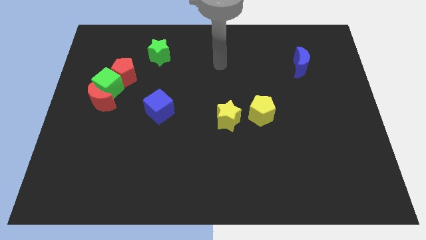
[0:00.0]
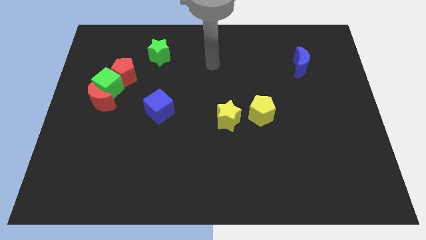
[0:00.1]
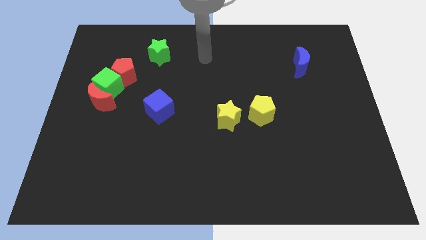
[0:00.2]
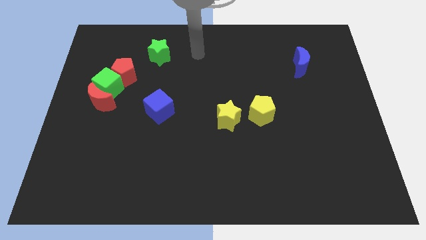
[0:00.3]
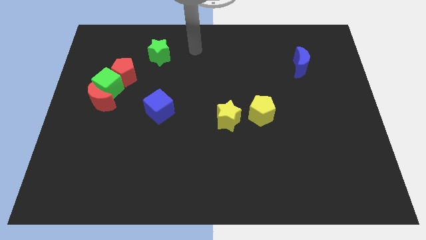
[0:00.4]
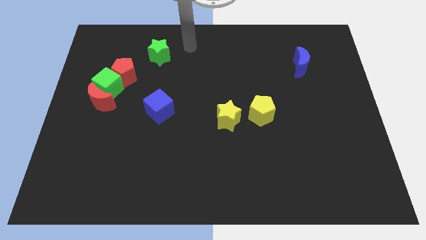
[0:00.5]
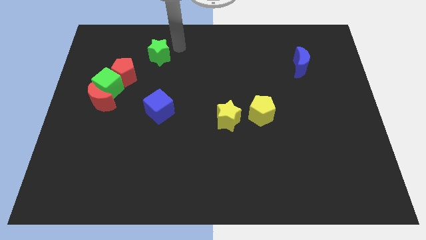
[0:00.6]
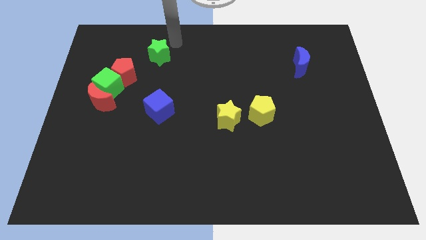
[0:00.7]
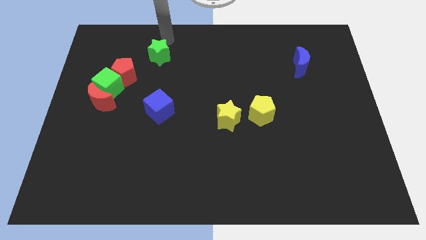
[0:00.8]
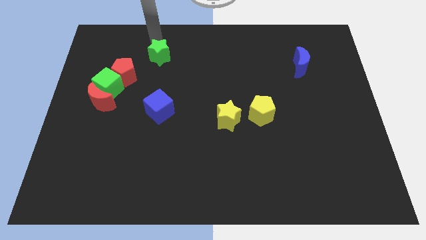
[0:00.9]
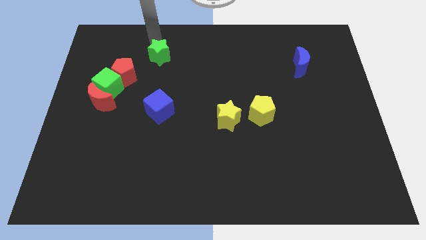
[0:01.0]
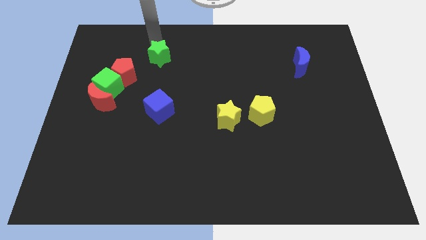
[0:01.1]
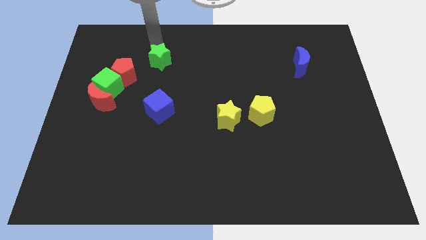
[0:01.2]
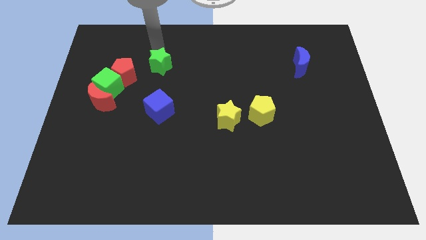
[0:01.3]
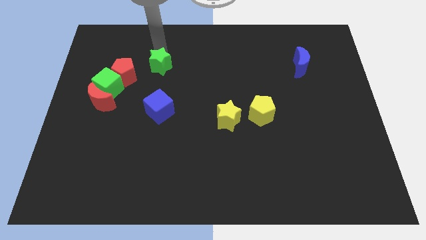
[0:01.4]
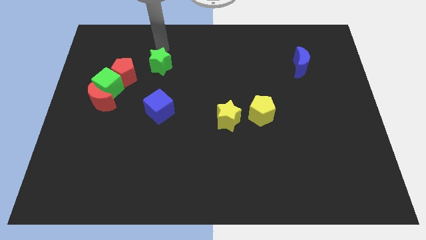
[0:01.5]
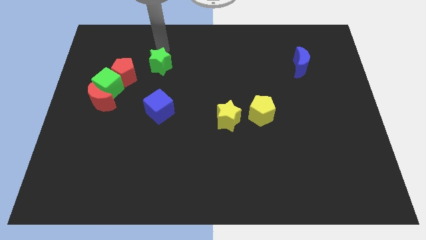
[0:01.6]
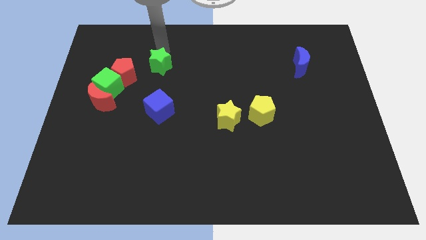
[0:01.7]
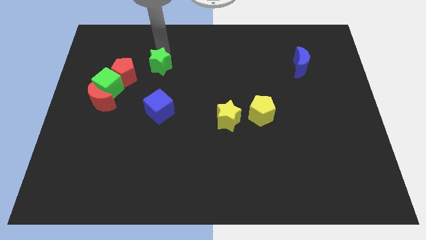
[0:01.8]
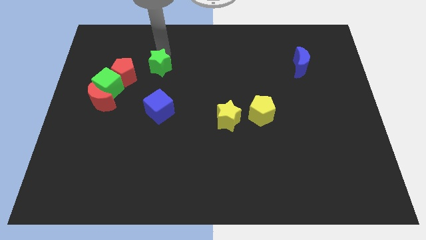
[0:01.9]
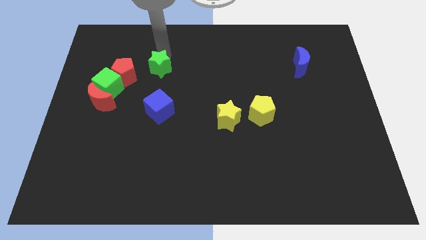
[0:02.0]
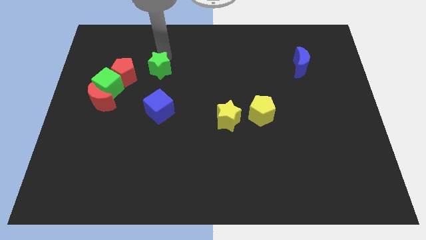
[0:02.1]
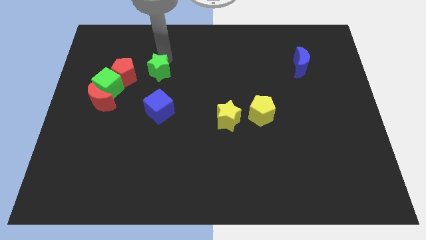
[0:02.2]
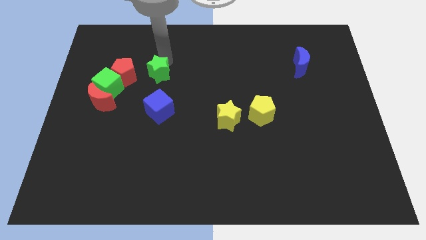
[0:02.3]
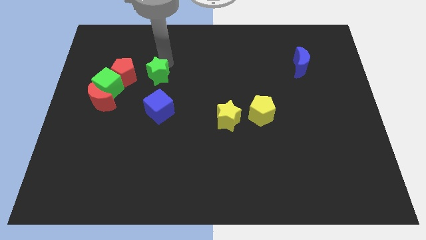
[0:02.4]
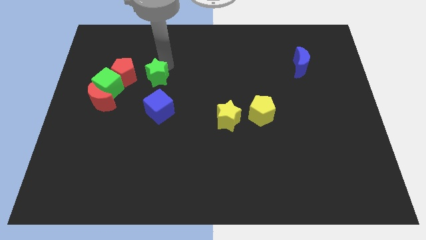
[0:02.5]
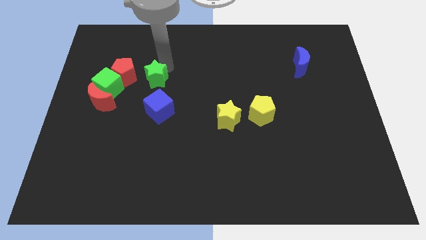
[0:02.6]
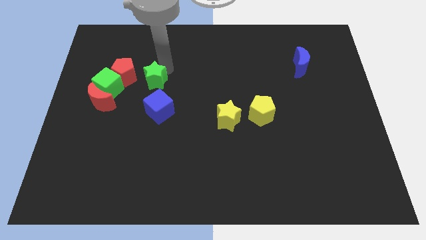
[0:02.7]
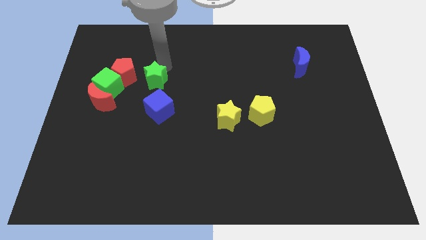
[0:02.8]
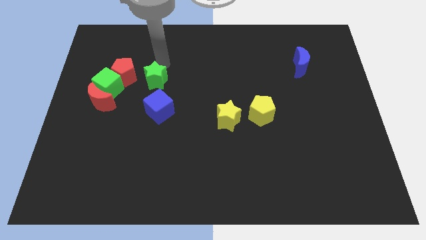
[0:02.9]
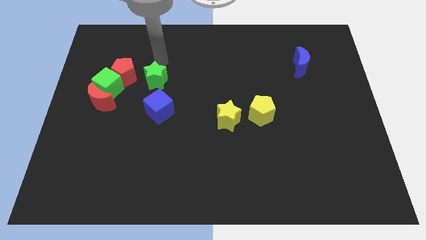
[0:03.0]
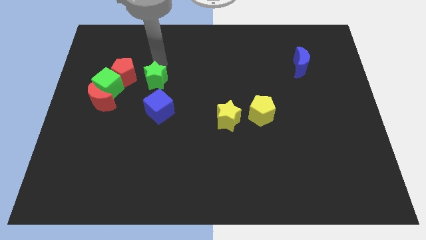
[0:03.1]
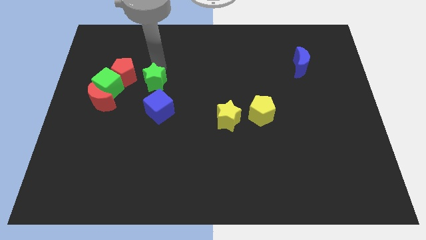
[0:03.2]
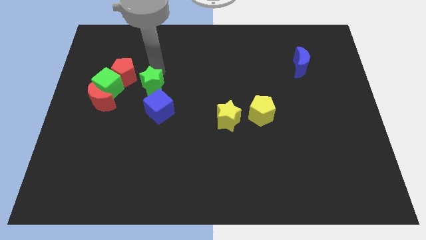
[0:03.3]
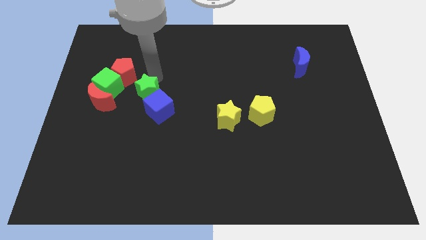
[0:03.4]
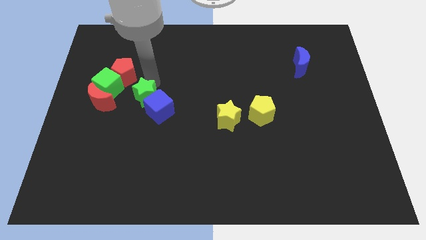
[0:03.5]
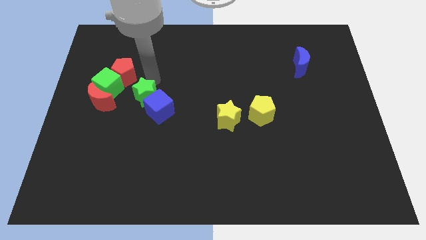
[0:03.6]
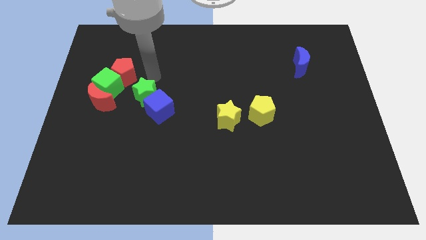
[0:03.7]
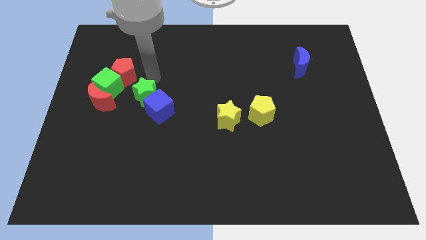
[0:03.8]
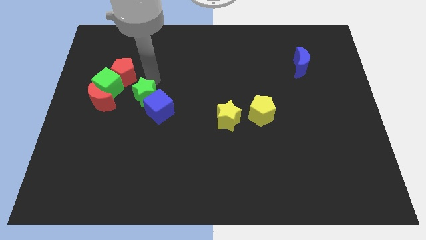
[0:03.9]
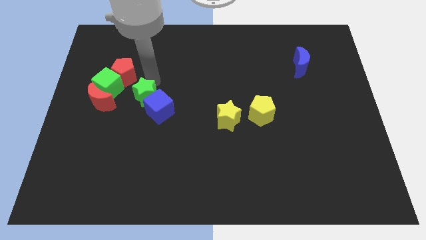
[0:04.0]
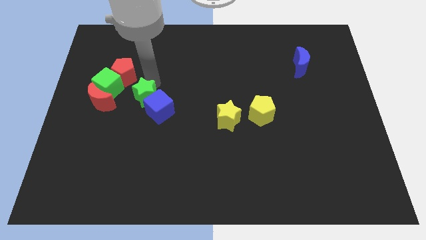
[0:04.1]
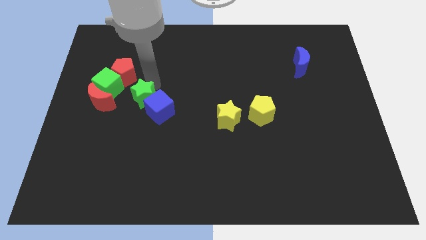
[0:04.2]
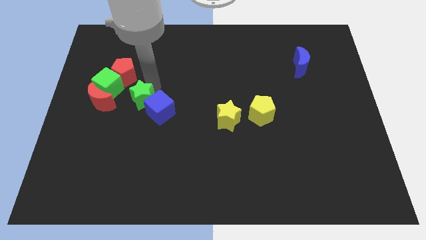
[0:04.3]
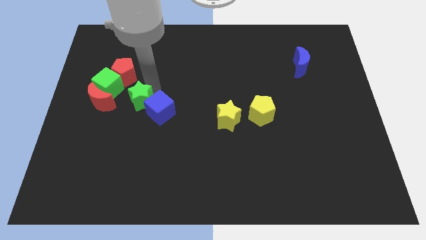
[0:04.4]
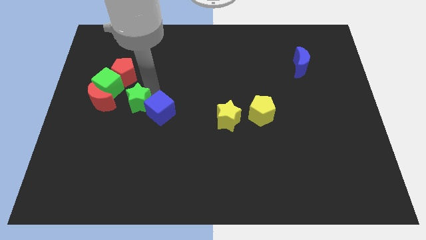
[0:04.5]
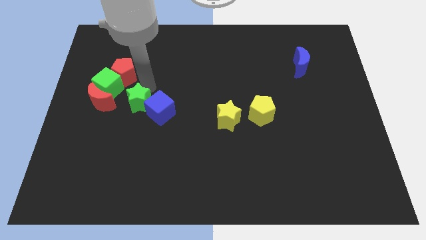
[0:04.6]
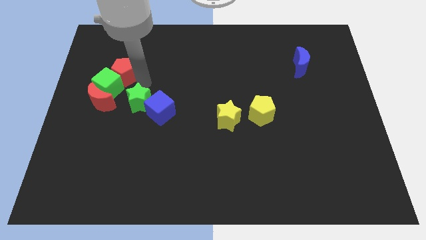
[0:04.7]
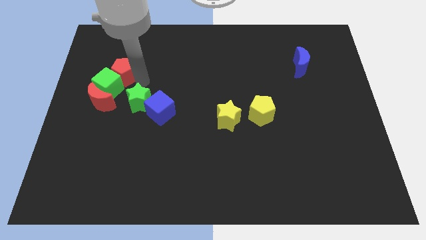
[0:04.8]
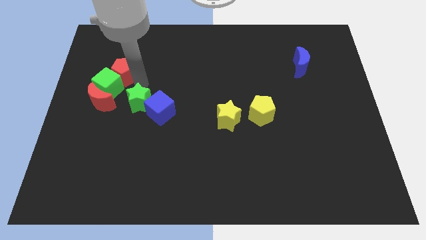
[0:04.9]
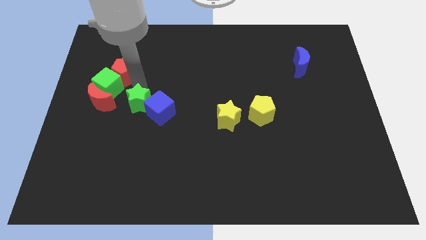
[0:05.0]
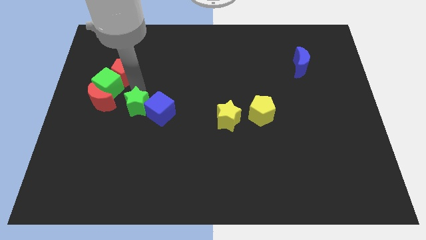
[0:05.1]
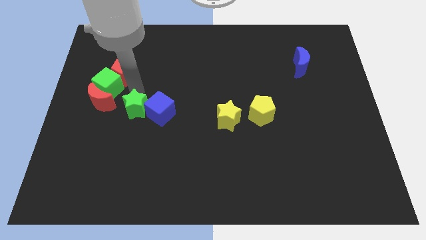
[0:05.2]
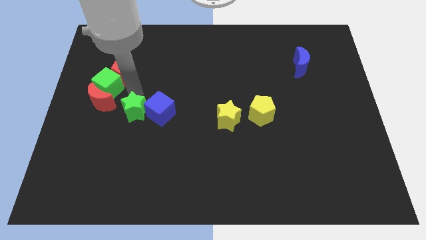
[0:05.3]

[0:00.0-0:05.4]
put the green star diagonally down and to the left of the blue cube

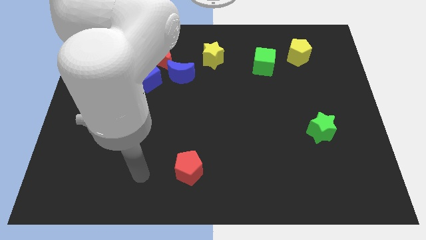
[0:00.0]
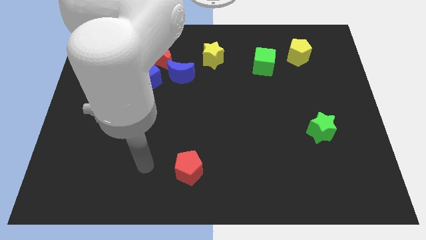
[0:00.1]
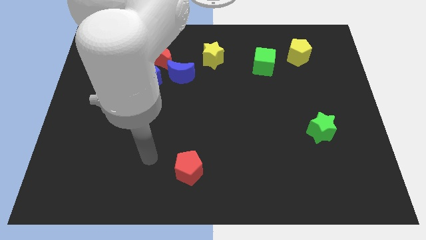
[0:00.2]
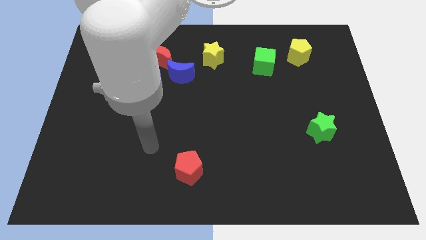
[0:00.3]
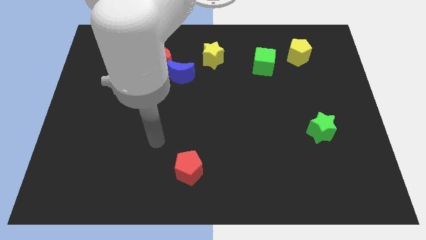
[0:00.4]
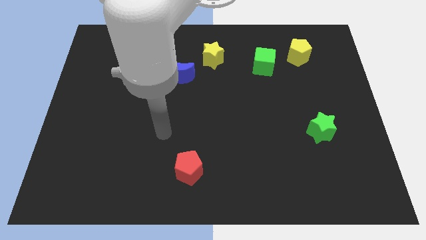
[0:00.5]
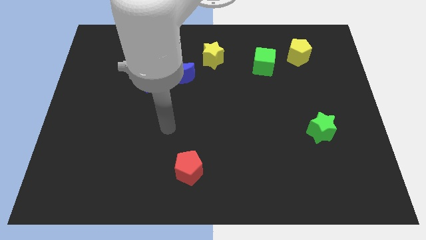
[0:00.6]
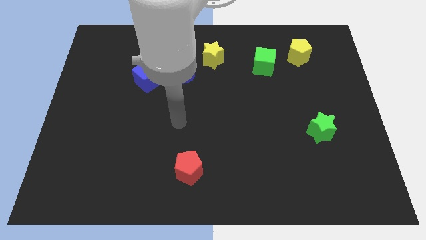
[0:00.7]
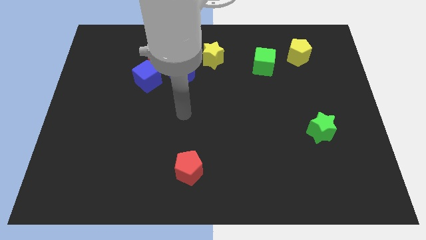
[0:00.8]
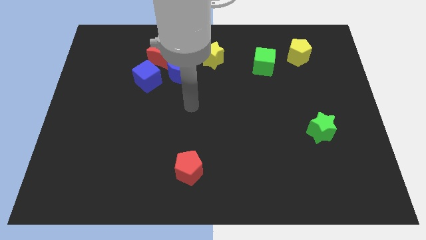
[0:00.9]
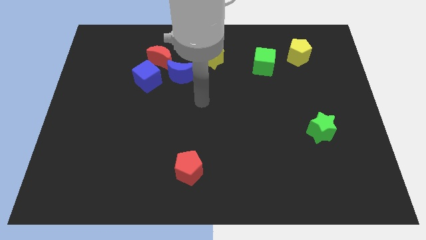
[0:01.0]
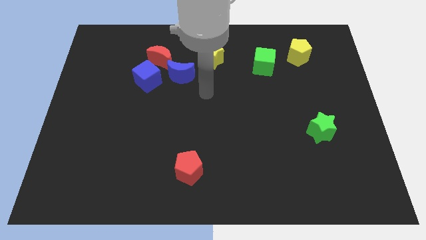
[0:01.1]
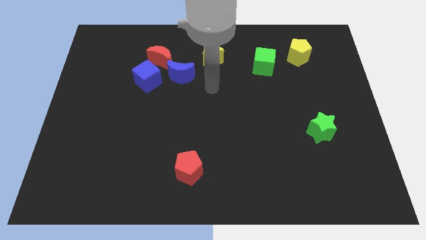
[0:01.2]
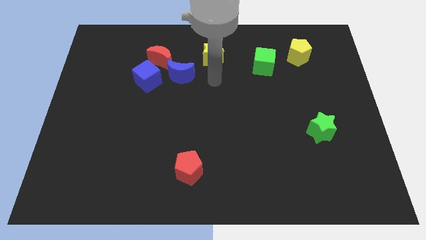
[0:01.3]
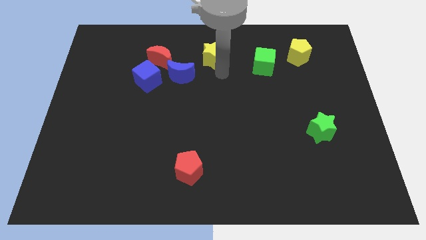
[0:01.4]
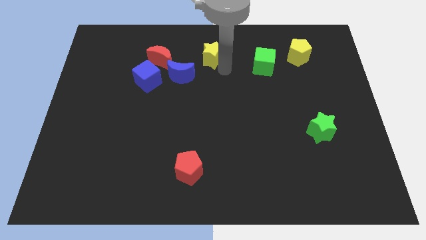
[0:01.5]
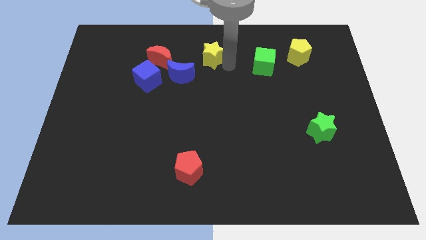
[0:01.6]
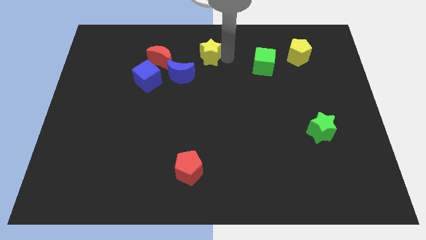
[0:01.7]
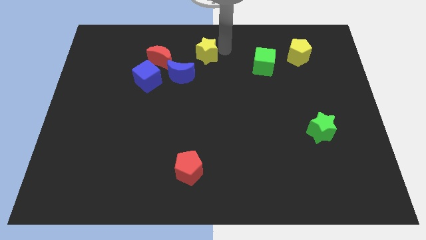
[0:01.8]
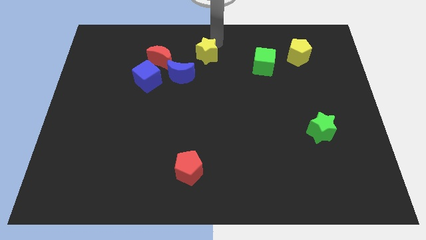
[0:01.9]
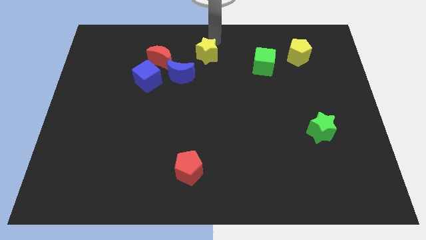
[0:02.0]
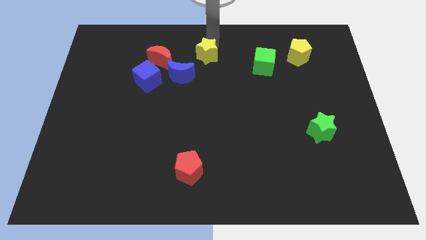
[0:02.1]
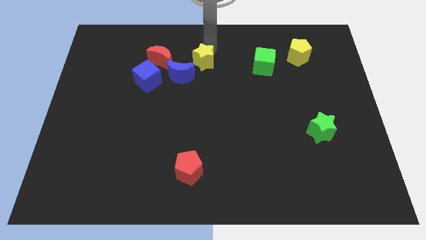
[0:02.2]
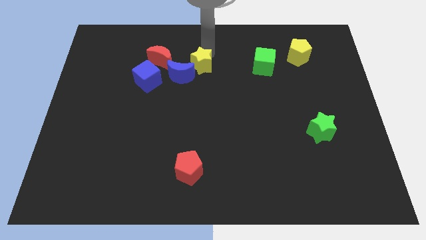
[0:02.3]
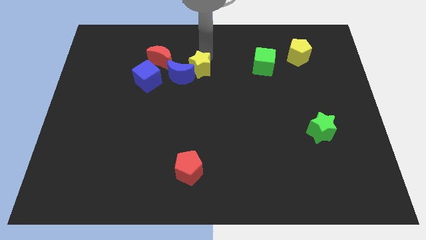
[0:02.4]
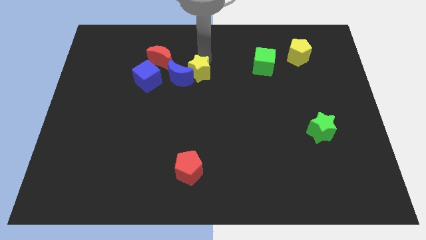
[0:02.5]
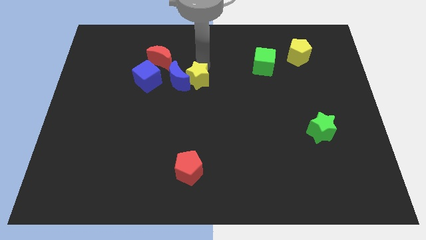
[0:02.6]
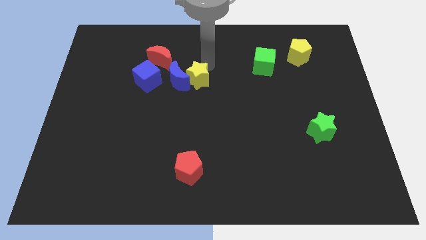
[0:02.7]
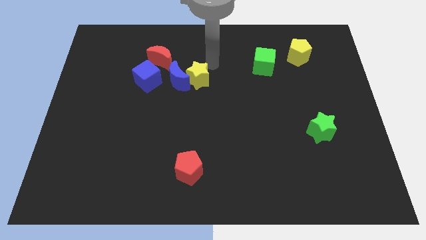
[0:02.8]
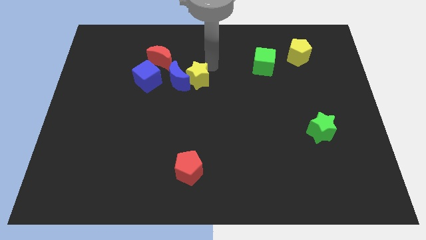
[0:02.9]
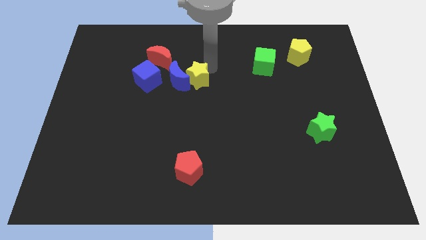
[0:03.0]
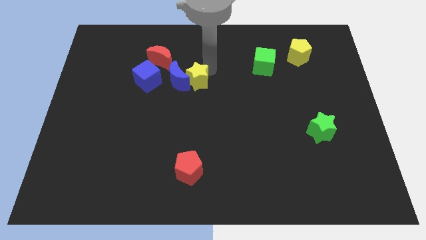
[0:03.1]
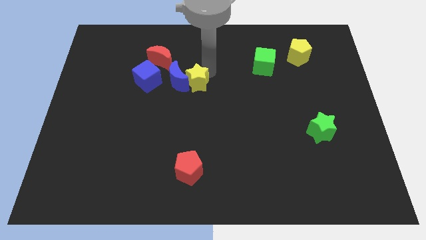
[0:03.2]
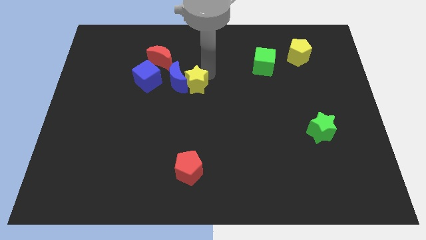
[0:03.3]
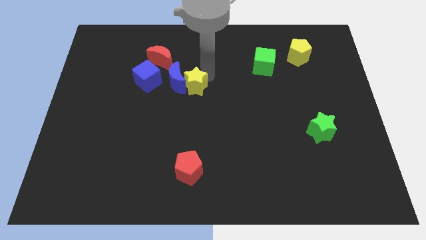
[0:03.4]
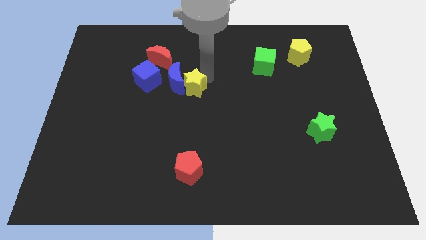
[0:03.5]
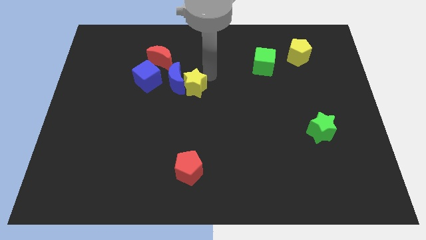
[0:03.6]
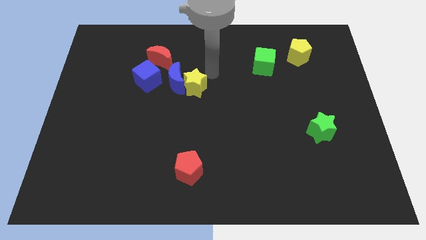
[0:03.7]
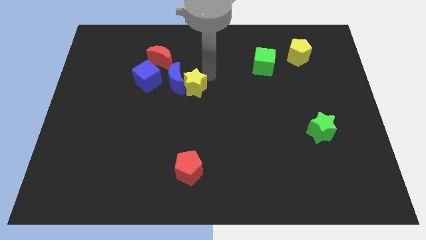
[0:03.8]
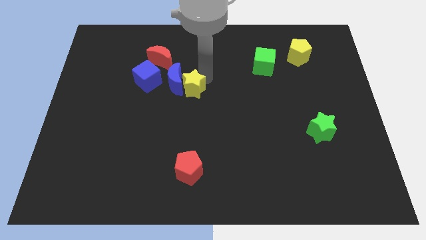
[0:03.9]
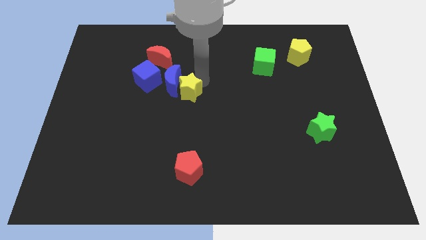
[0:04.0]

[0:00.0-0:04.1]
put the yellow star below the blue moon
